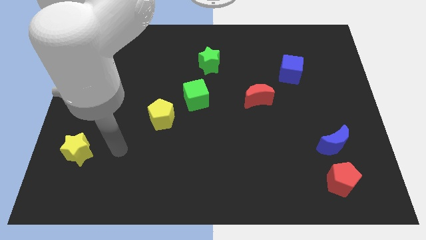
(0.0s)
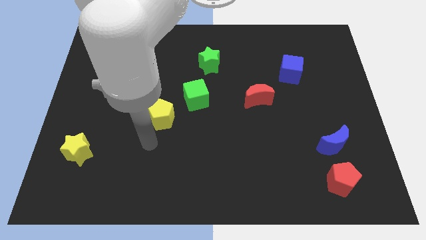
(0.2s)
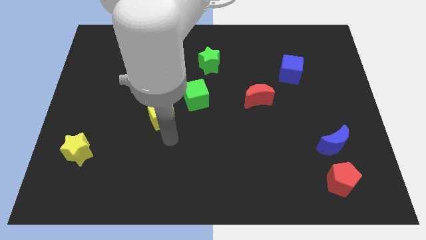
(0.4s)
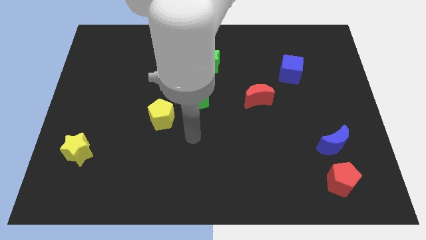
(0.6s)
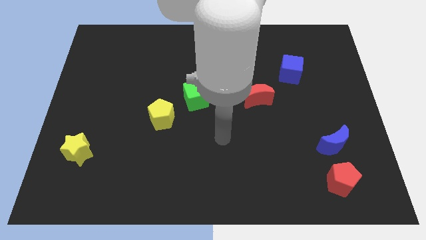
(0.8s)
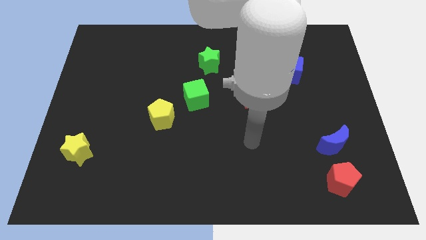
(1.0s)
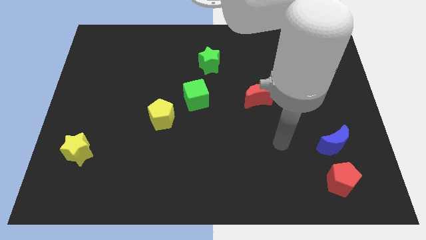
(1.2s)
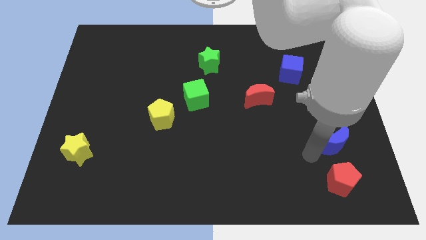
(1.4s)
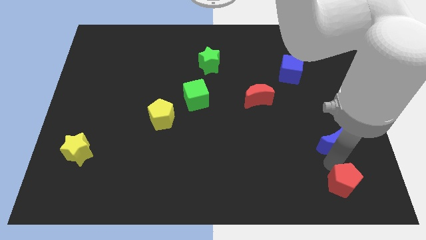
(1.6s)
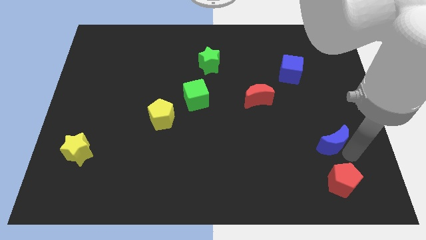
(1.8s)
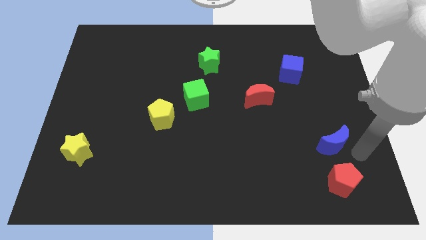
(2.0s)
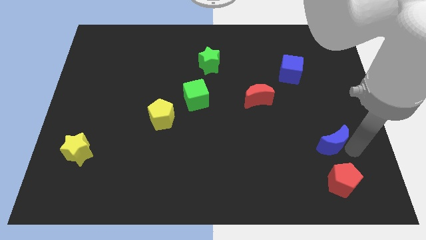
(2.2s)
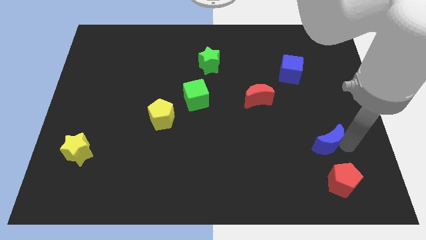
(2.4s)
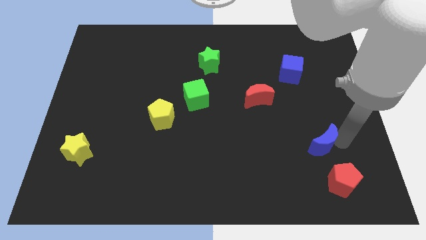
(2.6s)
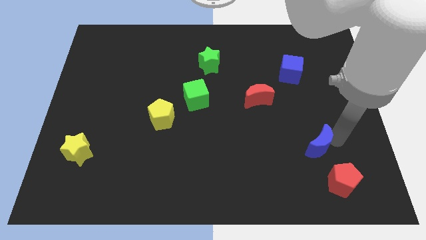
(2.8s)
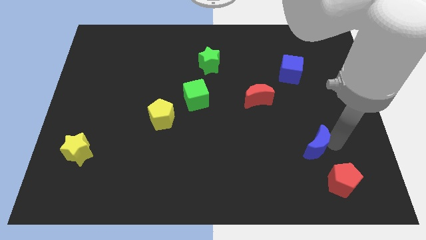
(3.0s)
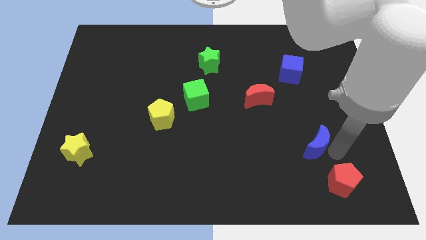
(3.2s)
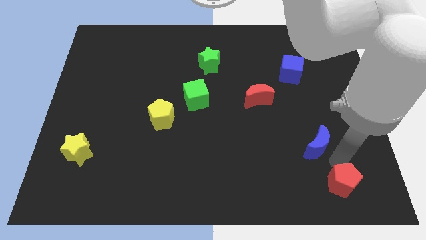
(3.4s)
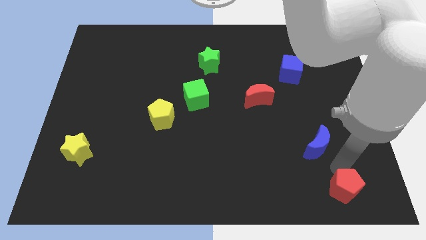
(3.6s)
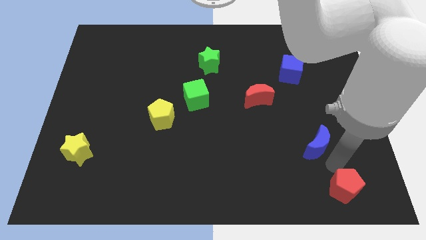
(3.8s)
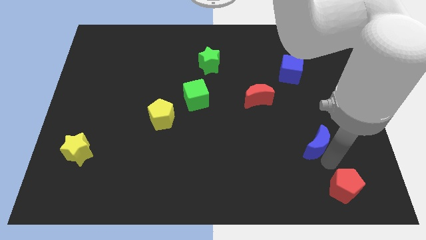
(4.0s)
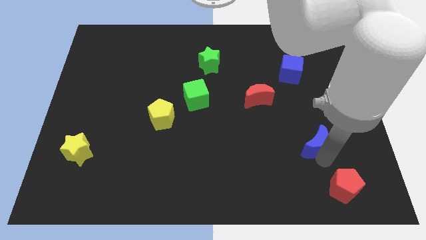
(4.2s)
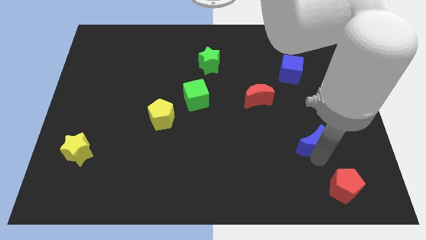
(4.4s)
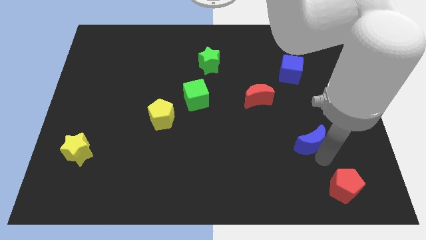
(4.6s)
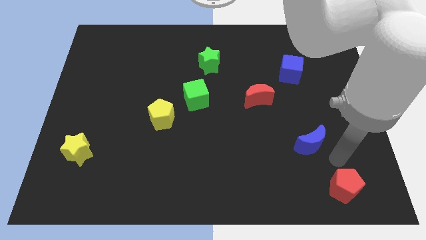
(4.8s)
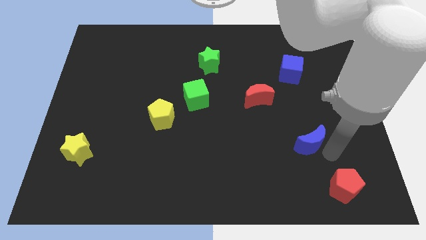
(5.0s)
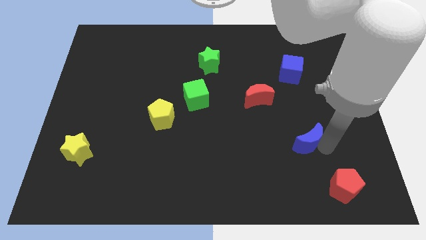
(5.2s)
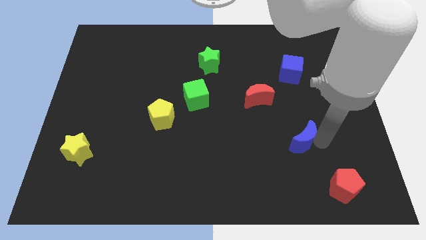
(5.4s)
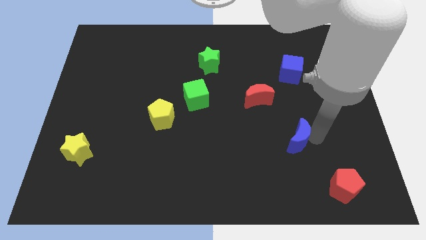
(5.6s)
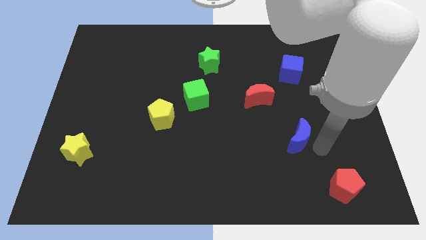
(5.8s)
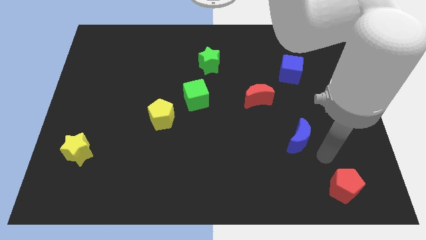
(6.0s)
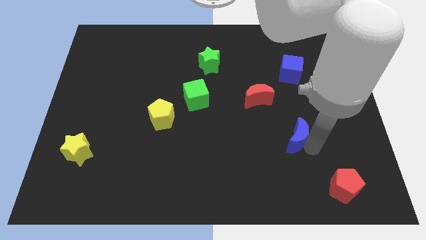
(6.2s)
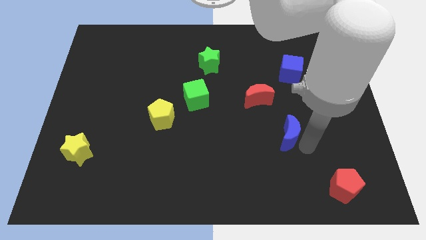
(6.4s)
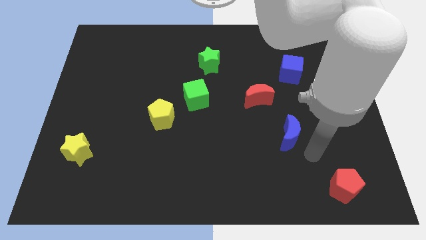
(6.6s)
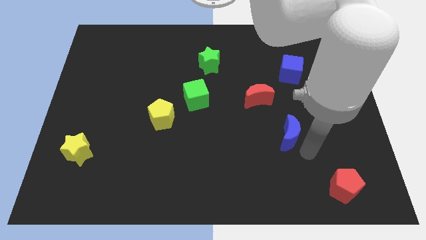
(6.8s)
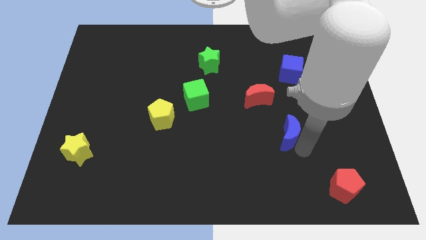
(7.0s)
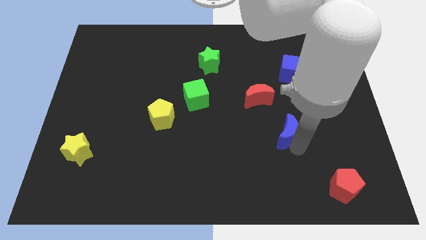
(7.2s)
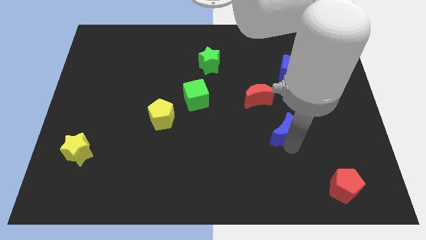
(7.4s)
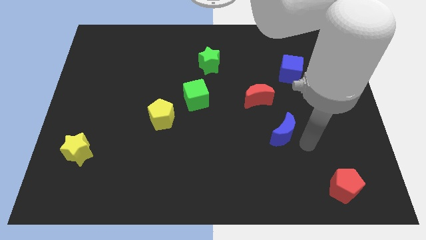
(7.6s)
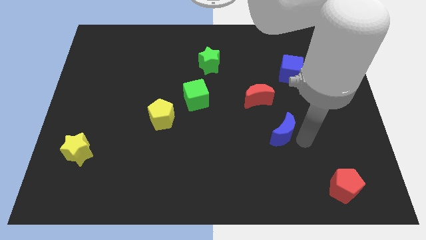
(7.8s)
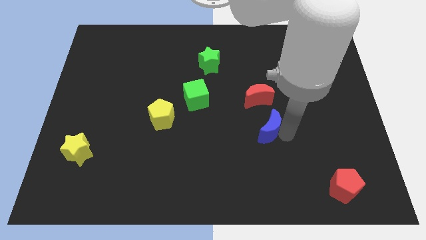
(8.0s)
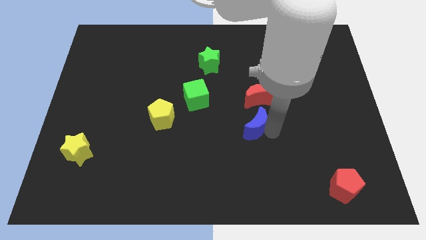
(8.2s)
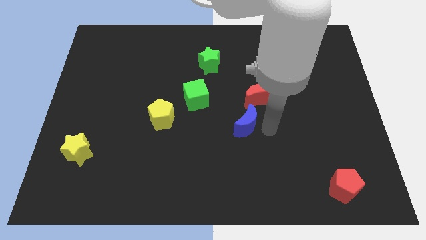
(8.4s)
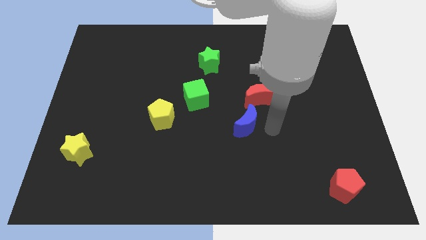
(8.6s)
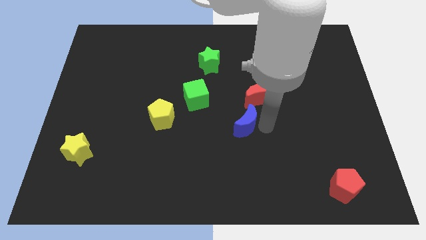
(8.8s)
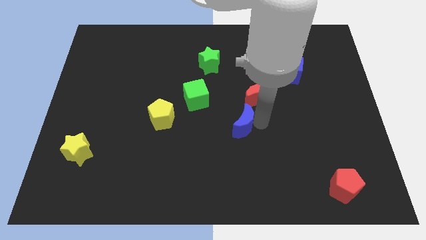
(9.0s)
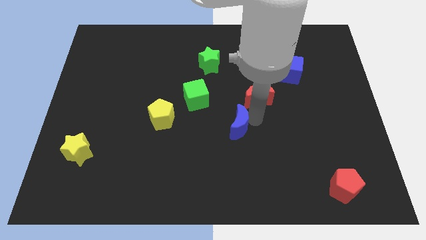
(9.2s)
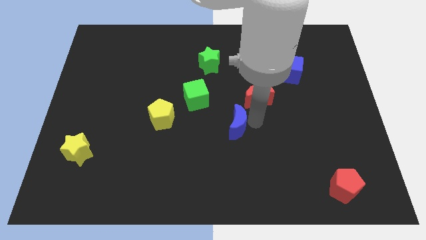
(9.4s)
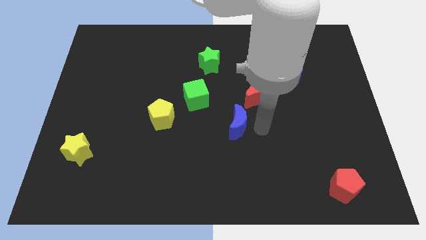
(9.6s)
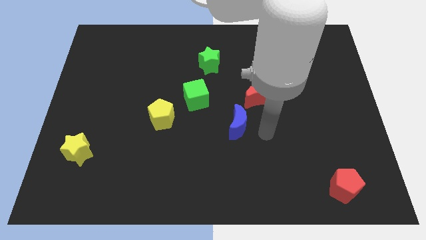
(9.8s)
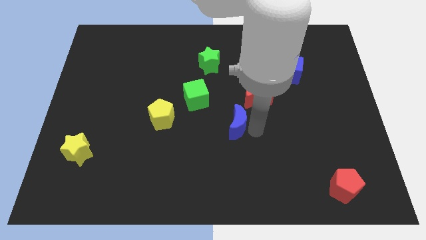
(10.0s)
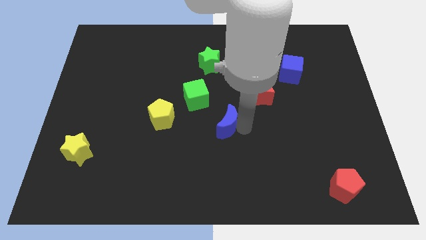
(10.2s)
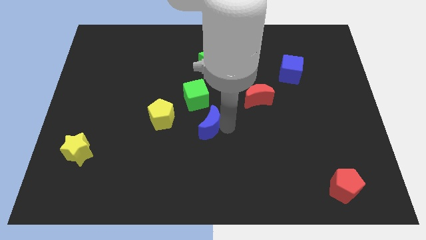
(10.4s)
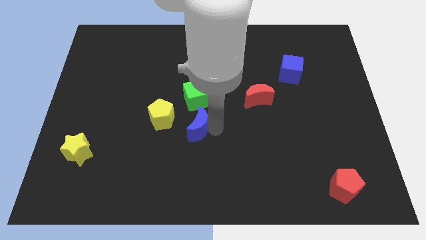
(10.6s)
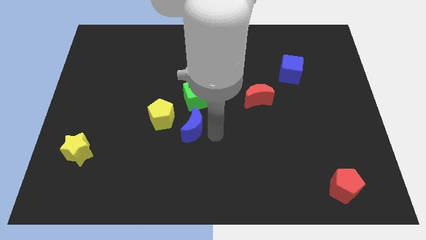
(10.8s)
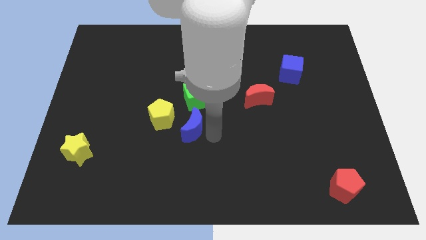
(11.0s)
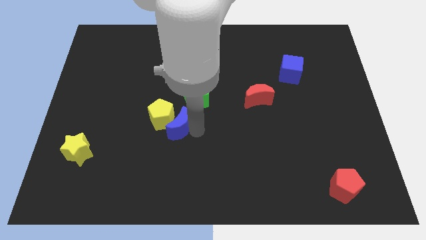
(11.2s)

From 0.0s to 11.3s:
slide the blue moon to the yellow pentagon

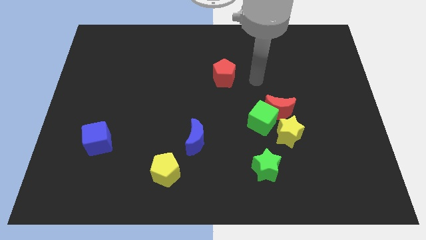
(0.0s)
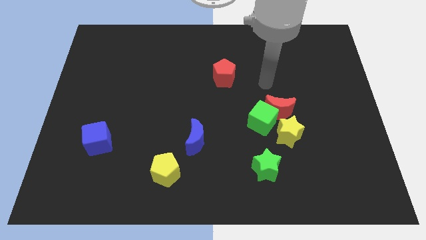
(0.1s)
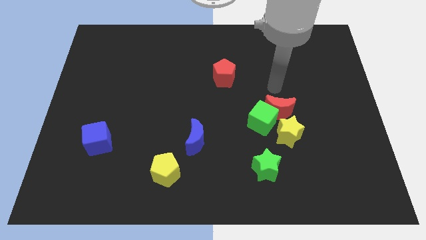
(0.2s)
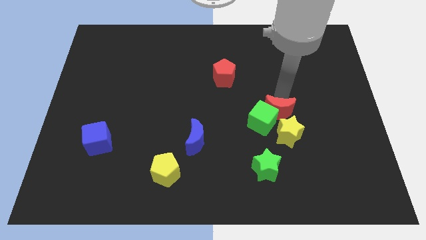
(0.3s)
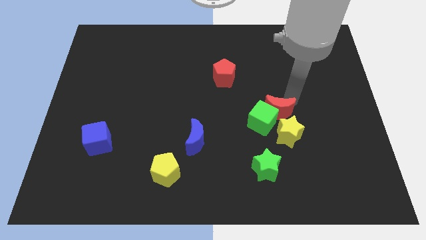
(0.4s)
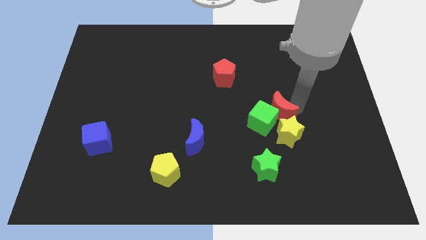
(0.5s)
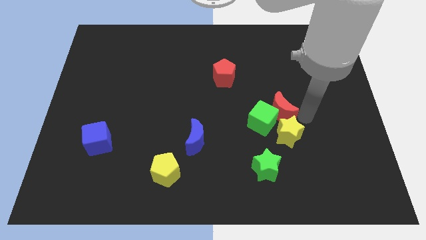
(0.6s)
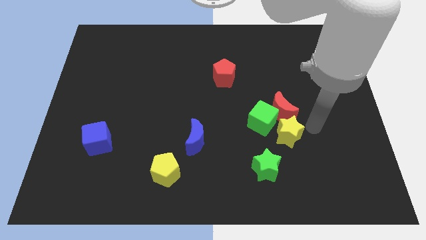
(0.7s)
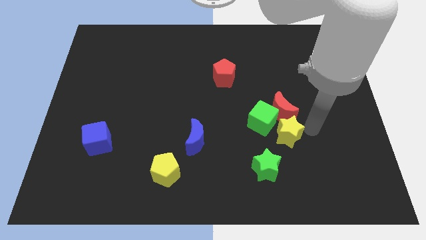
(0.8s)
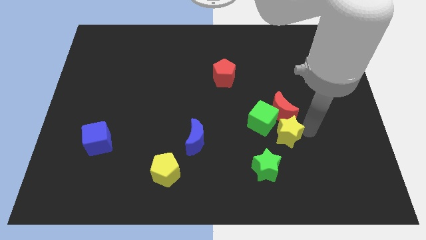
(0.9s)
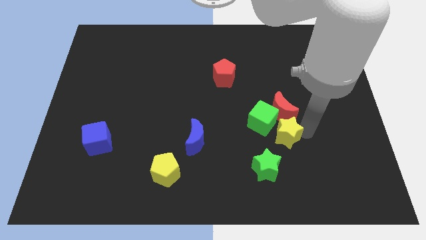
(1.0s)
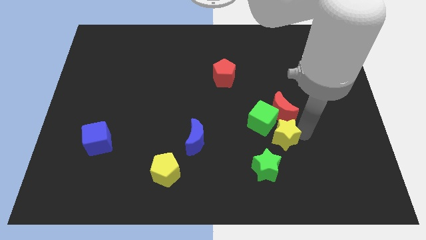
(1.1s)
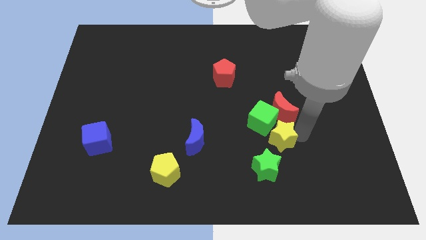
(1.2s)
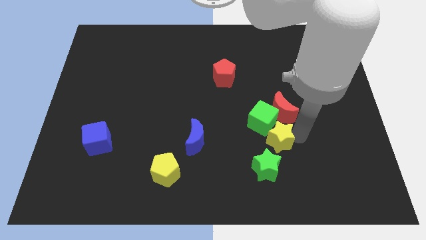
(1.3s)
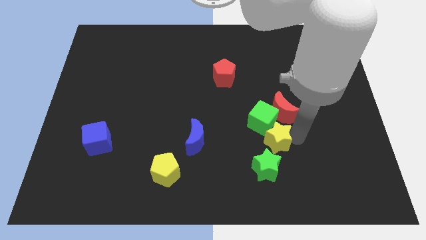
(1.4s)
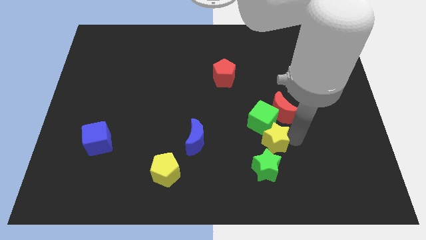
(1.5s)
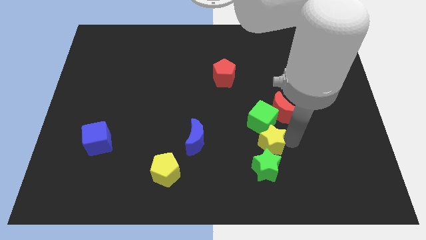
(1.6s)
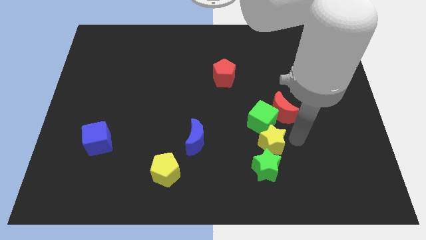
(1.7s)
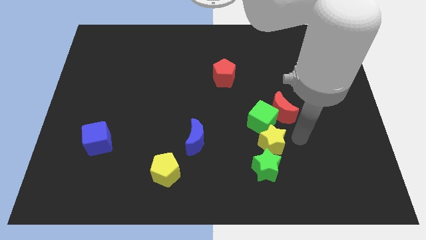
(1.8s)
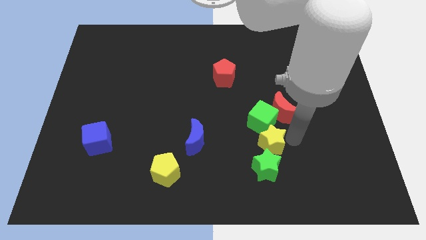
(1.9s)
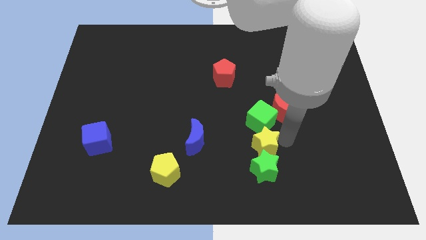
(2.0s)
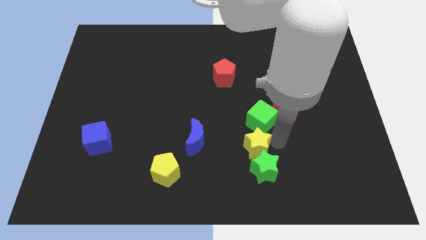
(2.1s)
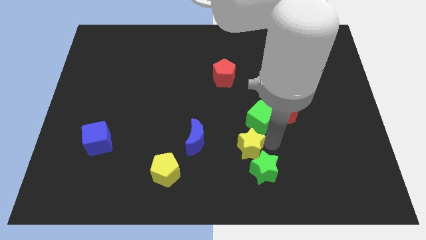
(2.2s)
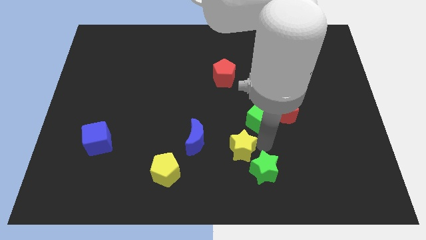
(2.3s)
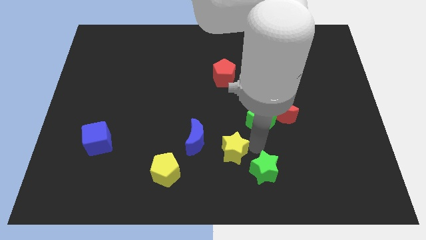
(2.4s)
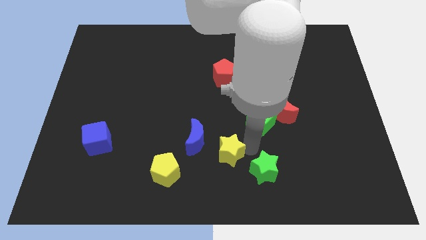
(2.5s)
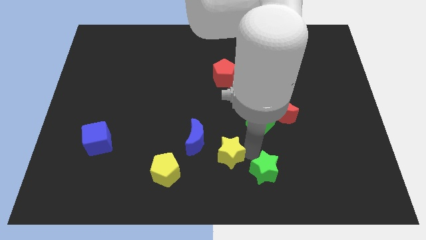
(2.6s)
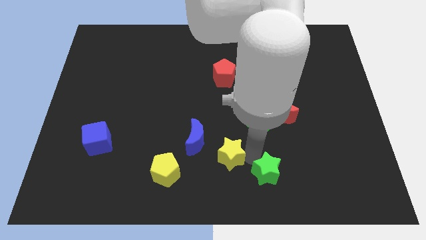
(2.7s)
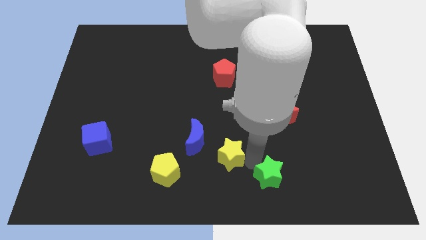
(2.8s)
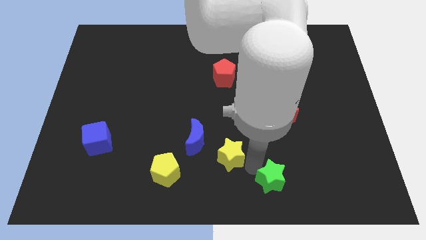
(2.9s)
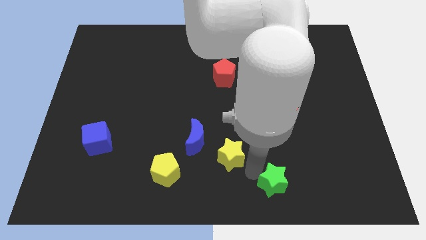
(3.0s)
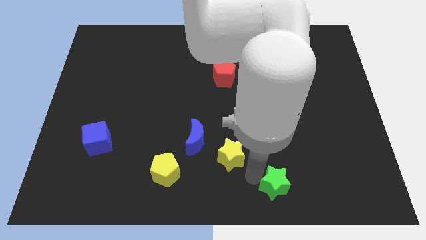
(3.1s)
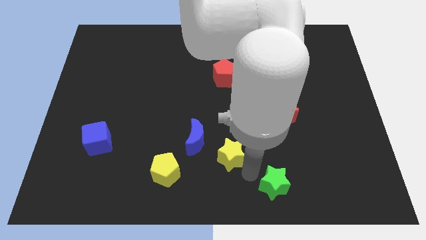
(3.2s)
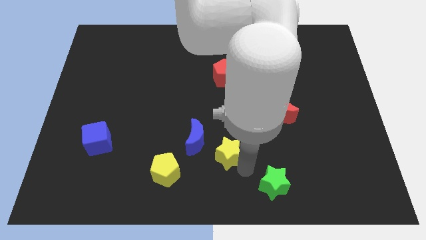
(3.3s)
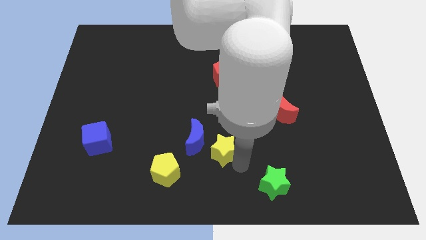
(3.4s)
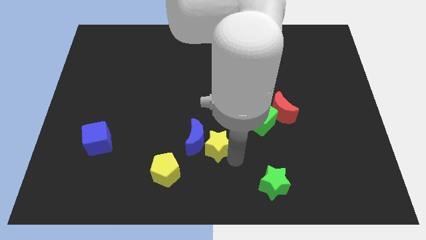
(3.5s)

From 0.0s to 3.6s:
slide the yellow star to the blue moon
